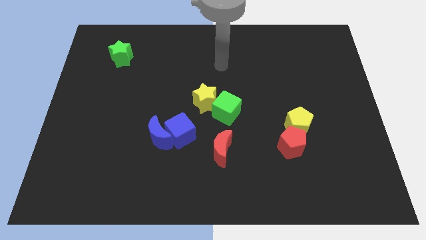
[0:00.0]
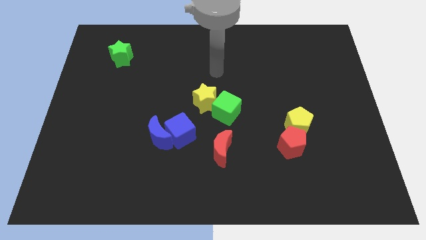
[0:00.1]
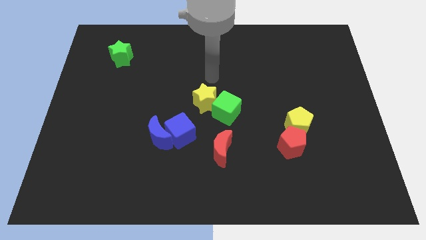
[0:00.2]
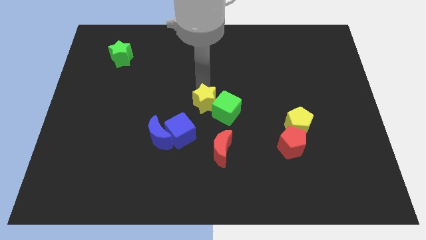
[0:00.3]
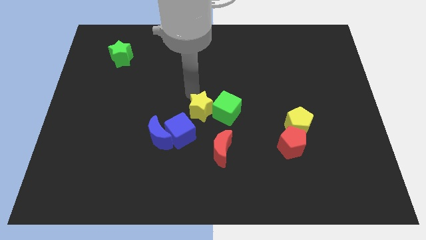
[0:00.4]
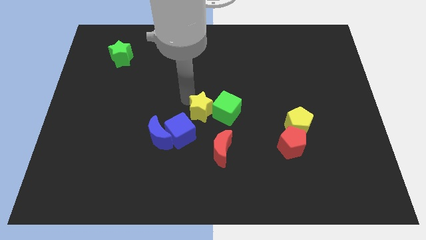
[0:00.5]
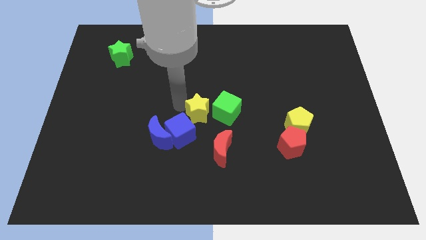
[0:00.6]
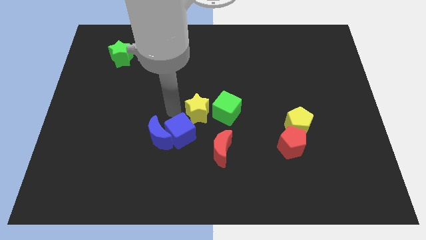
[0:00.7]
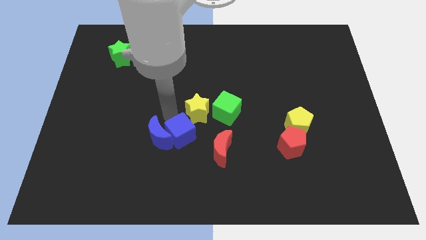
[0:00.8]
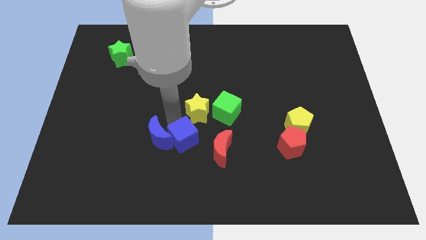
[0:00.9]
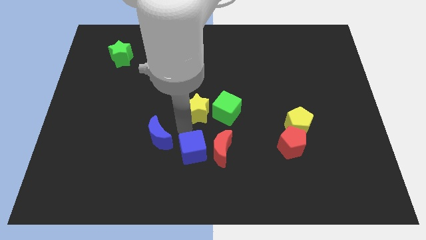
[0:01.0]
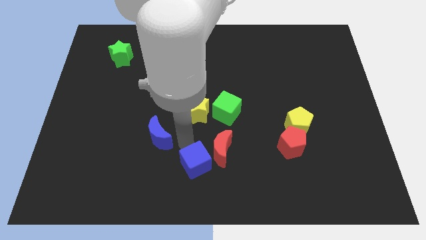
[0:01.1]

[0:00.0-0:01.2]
pull the blue moon apart from the blue cube

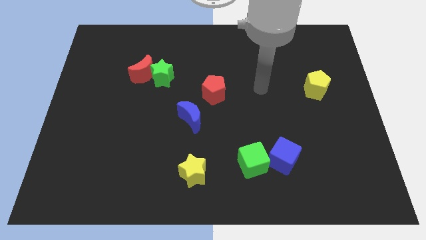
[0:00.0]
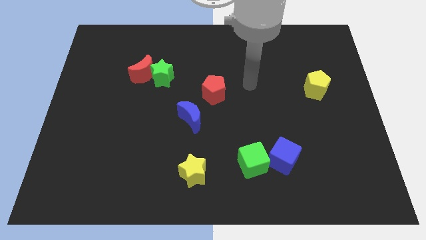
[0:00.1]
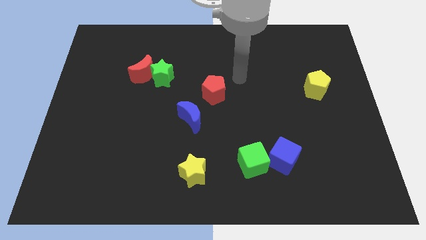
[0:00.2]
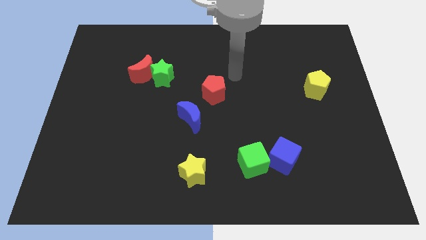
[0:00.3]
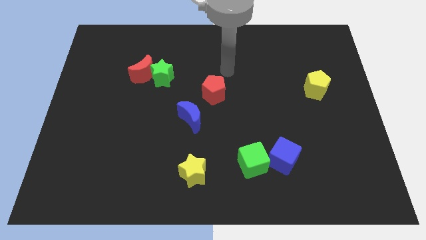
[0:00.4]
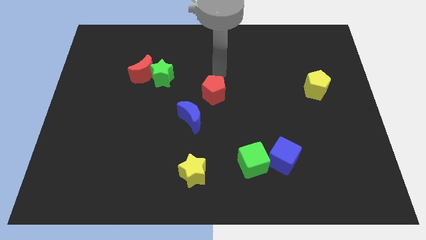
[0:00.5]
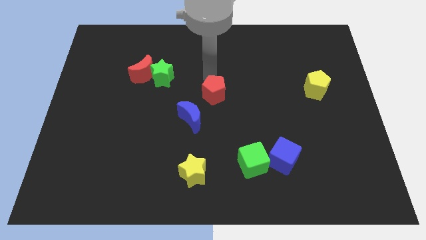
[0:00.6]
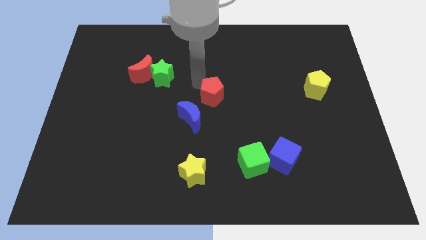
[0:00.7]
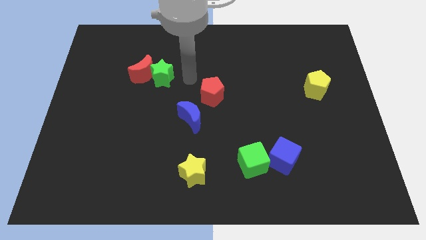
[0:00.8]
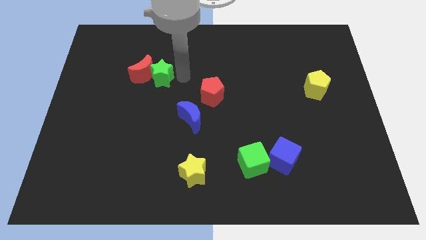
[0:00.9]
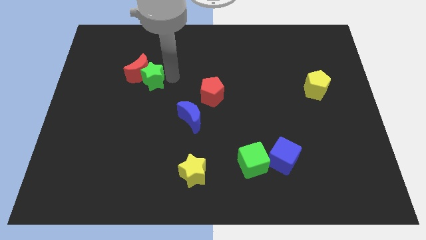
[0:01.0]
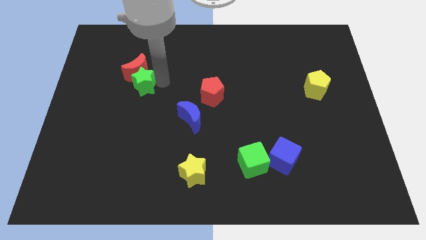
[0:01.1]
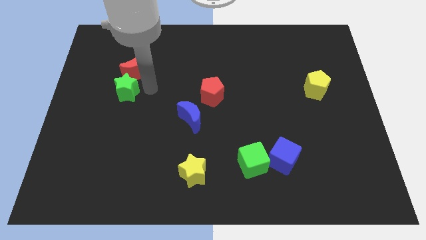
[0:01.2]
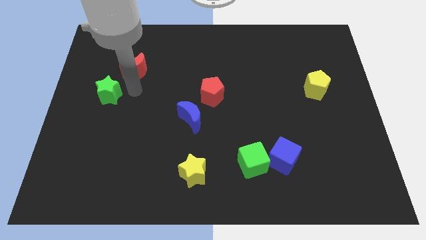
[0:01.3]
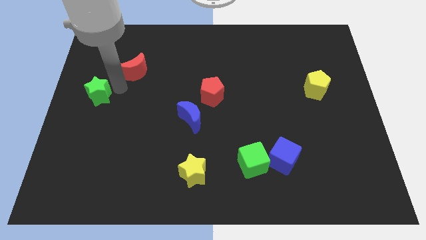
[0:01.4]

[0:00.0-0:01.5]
pull the red moon apart from the green star

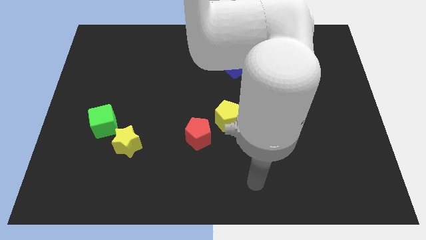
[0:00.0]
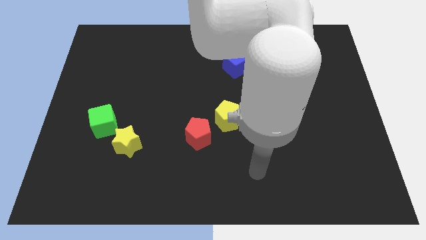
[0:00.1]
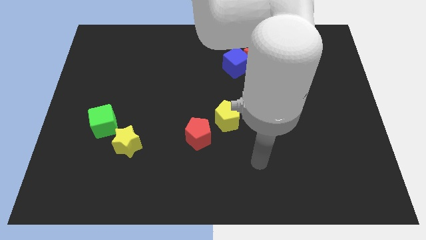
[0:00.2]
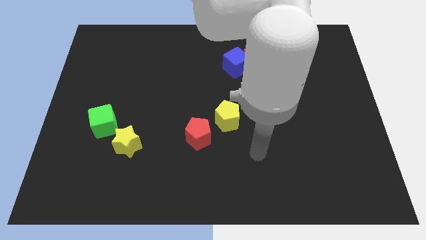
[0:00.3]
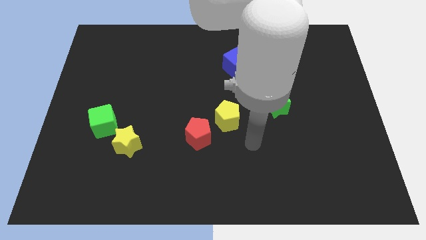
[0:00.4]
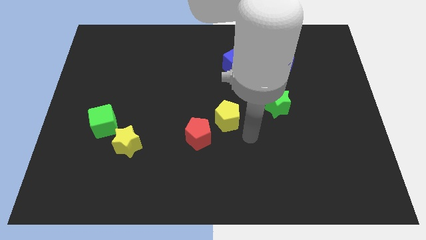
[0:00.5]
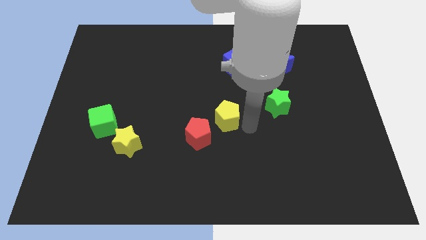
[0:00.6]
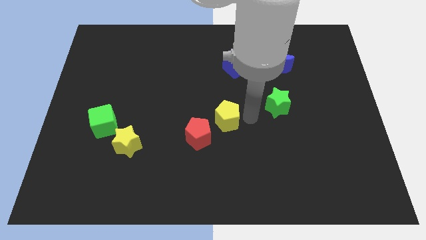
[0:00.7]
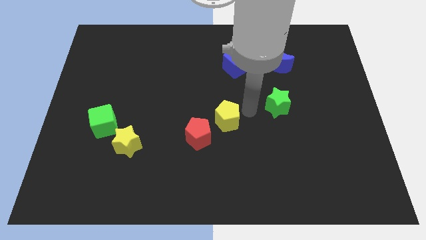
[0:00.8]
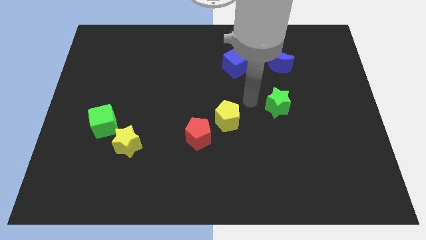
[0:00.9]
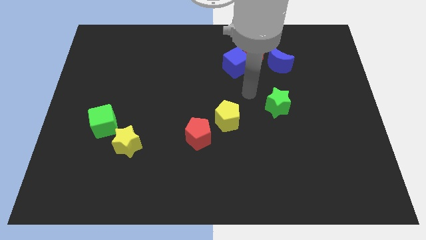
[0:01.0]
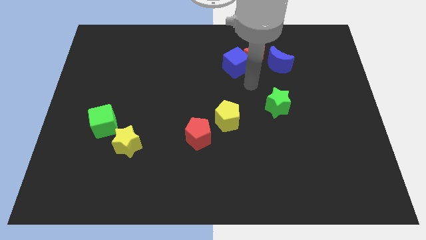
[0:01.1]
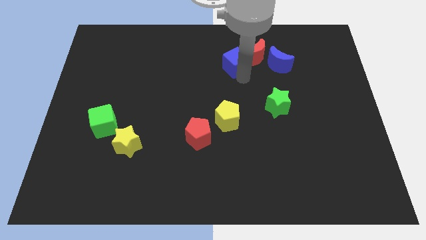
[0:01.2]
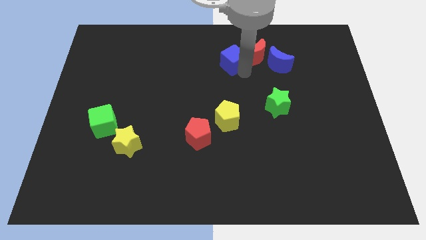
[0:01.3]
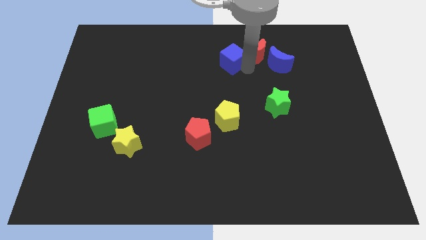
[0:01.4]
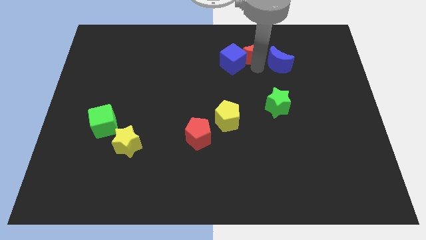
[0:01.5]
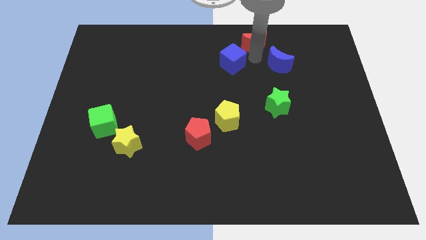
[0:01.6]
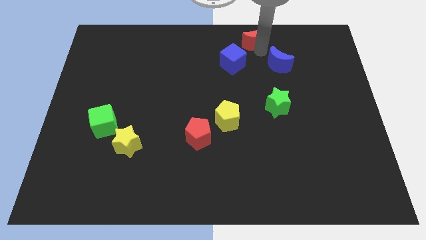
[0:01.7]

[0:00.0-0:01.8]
pull the blue moon apart from the red moon

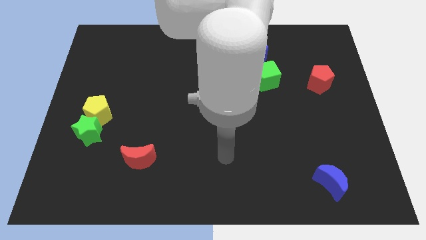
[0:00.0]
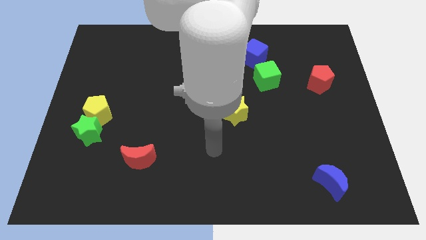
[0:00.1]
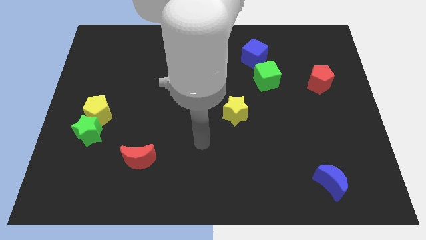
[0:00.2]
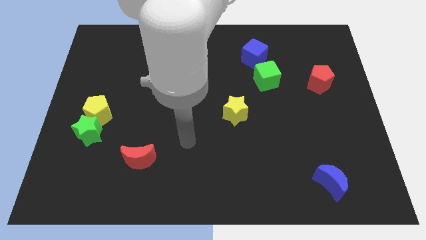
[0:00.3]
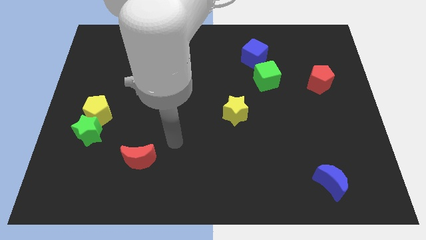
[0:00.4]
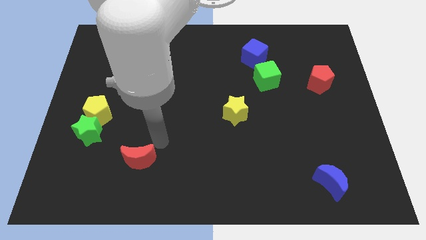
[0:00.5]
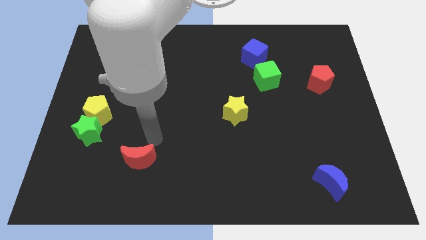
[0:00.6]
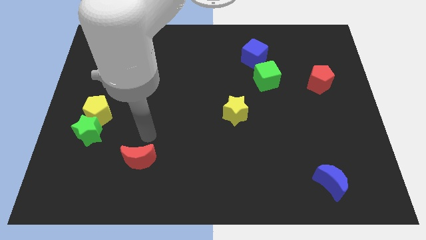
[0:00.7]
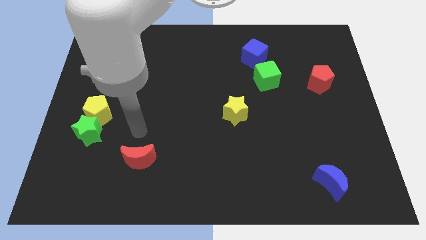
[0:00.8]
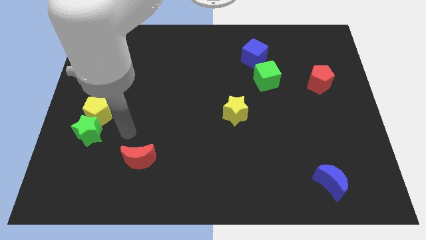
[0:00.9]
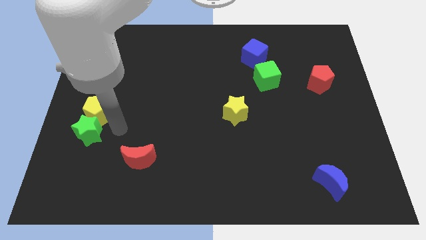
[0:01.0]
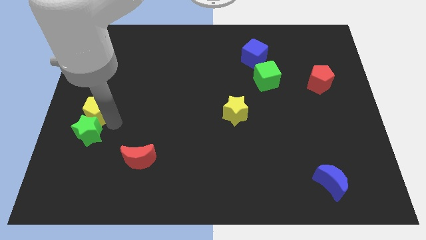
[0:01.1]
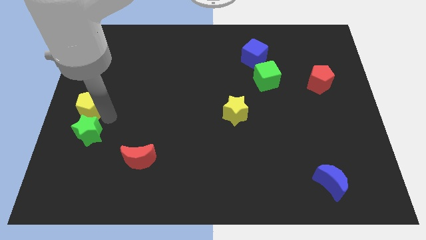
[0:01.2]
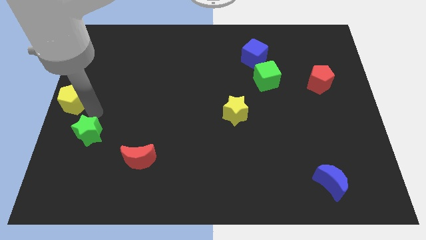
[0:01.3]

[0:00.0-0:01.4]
move the green star away from the yellow pentagon

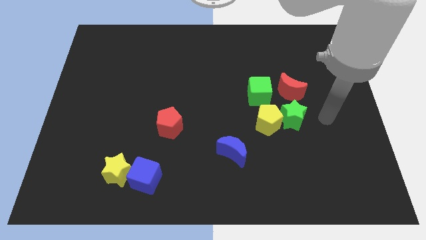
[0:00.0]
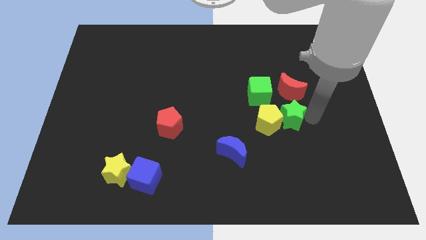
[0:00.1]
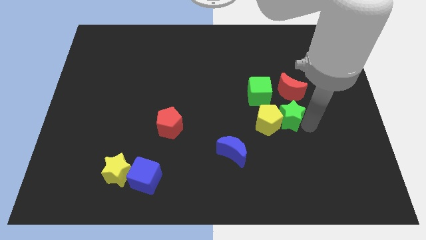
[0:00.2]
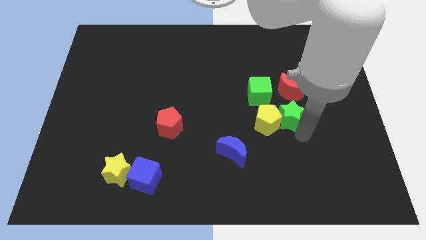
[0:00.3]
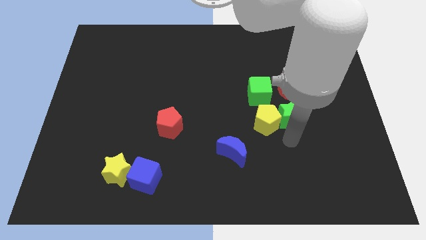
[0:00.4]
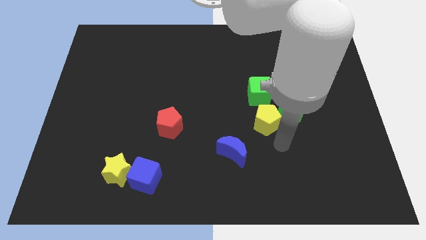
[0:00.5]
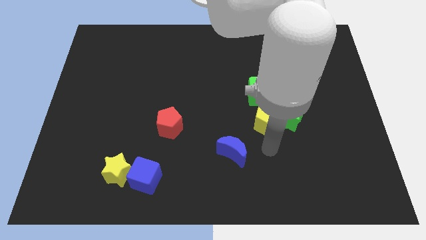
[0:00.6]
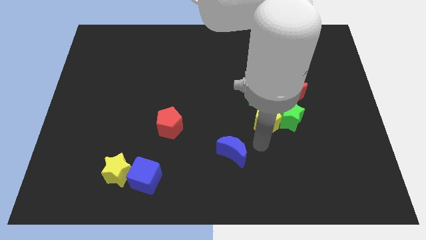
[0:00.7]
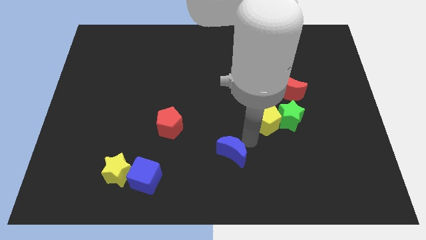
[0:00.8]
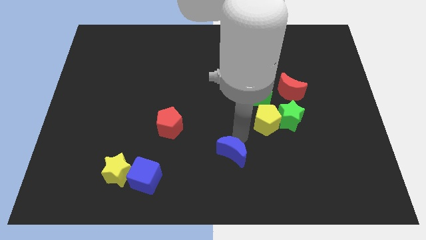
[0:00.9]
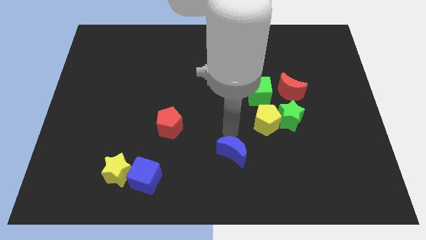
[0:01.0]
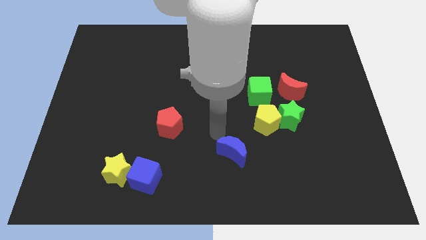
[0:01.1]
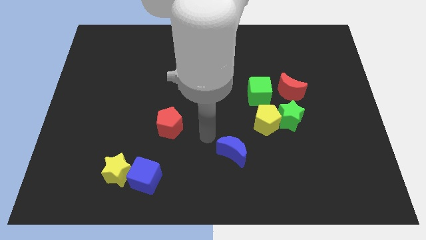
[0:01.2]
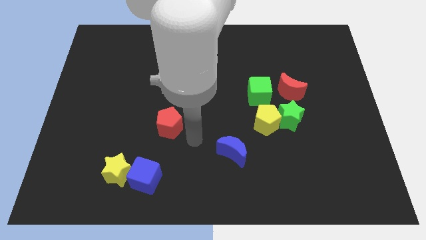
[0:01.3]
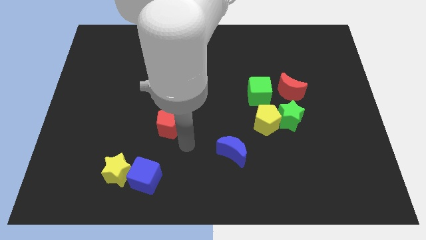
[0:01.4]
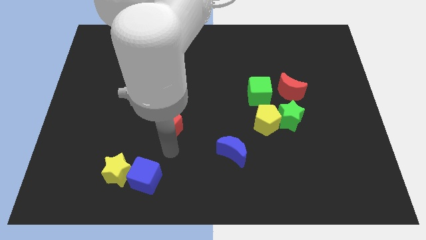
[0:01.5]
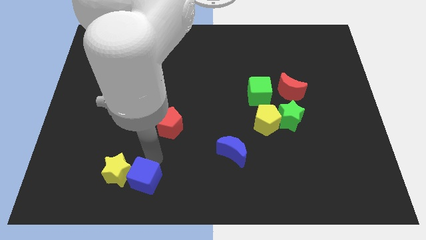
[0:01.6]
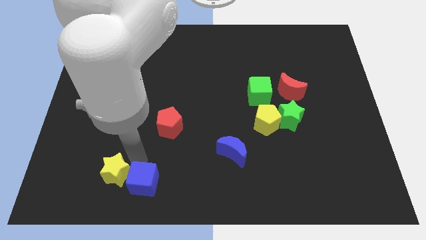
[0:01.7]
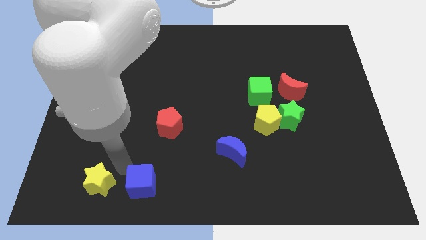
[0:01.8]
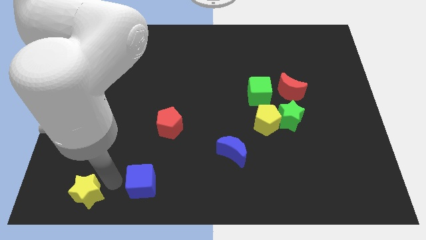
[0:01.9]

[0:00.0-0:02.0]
move the blue cube away from the yellow star

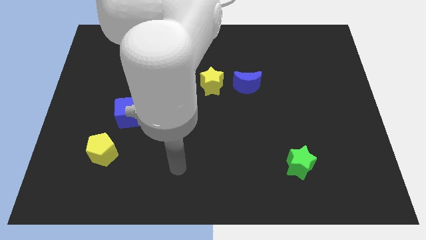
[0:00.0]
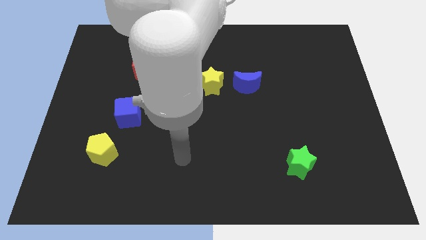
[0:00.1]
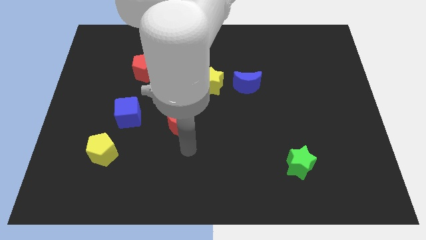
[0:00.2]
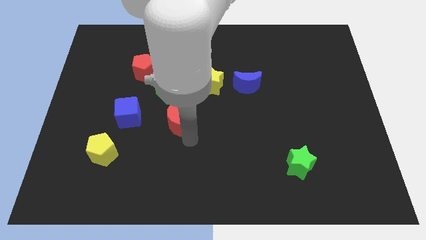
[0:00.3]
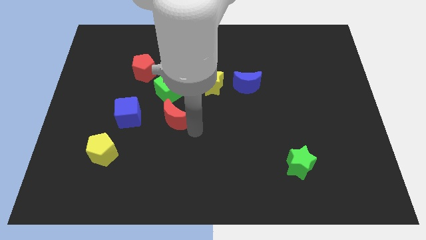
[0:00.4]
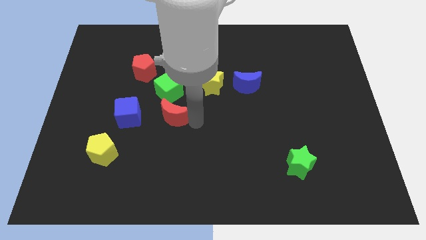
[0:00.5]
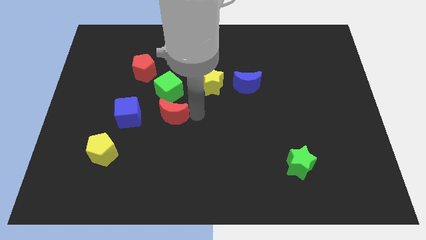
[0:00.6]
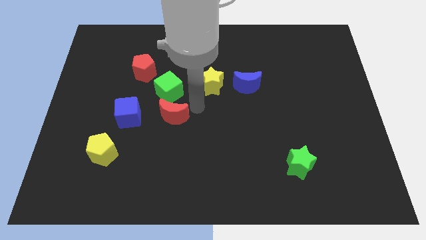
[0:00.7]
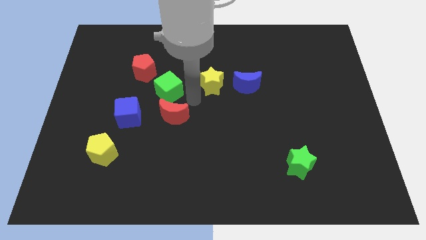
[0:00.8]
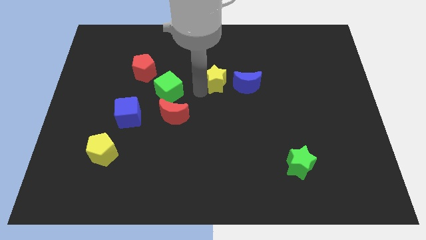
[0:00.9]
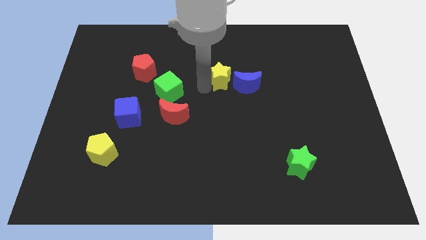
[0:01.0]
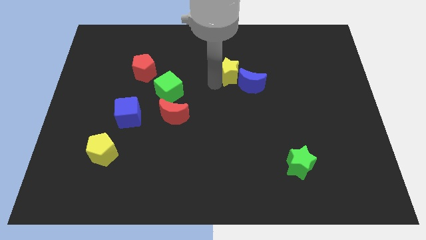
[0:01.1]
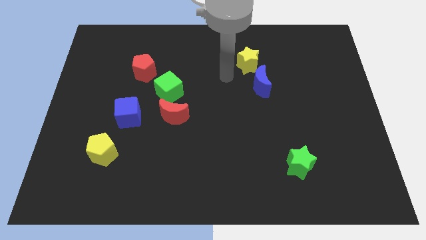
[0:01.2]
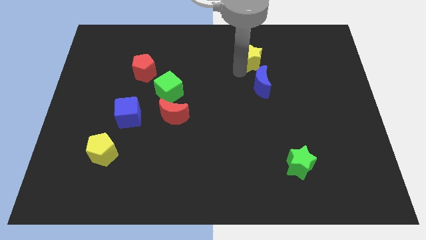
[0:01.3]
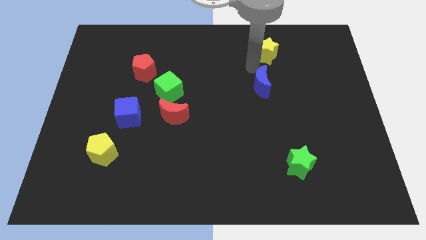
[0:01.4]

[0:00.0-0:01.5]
pull the blue moon apart from the yellow star
